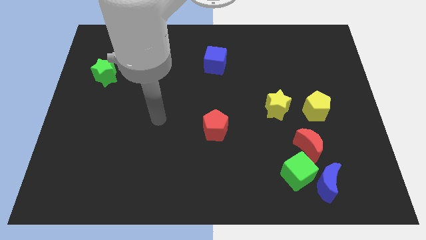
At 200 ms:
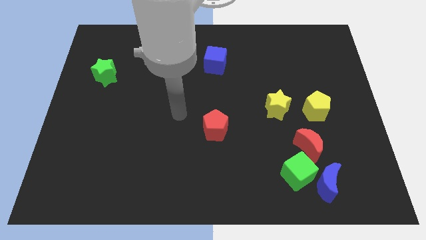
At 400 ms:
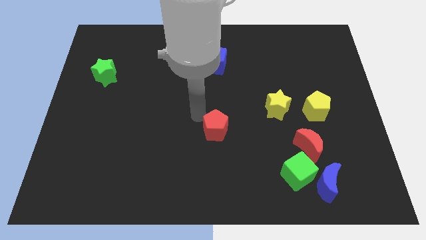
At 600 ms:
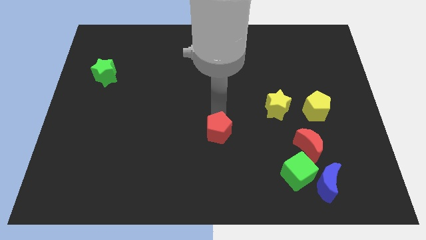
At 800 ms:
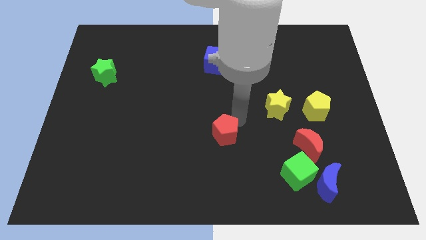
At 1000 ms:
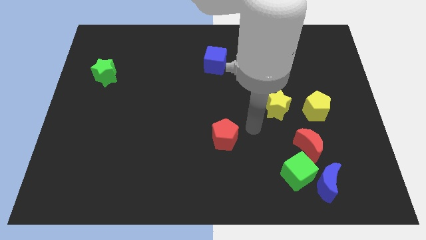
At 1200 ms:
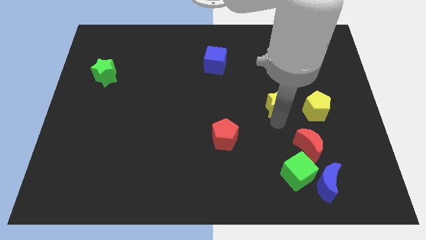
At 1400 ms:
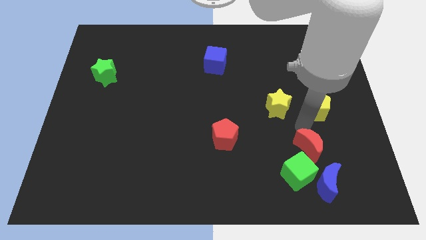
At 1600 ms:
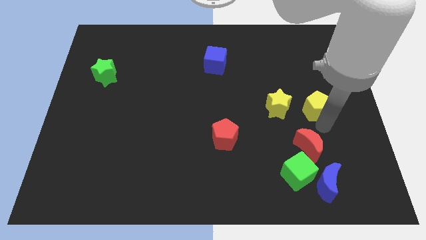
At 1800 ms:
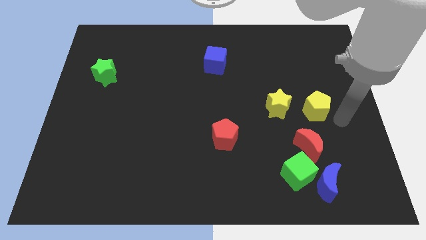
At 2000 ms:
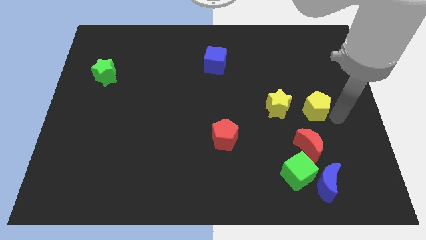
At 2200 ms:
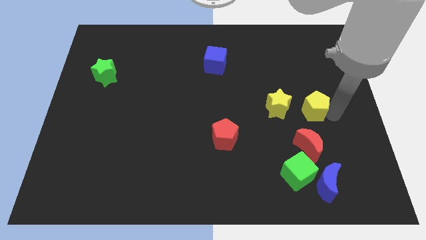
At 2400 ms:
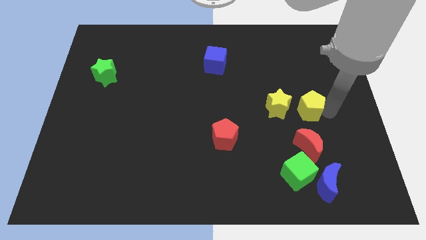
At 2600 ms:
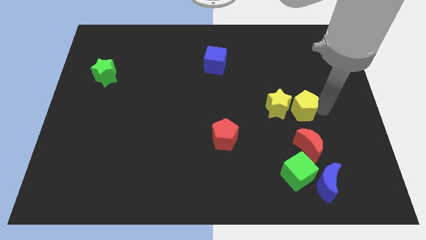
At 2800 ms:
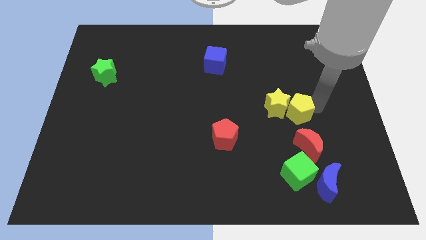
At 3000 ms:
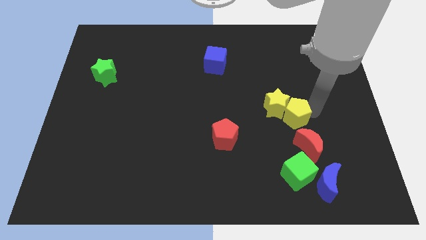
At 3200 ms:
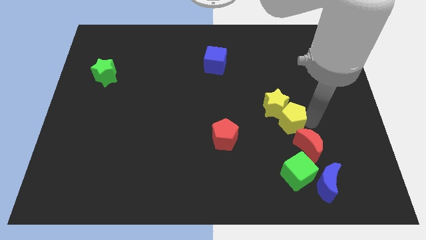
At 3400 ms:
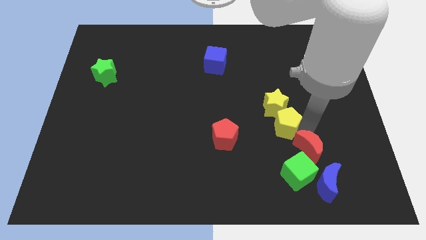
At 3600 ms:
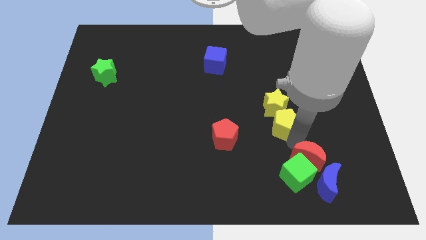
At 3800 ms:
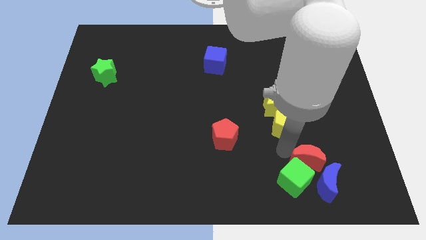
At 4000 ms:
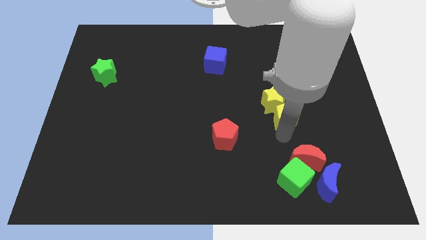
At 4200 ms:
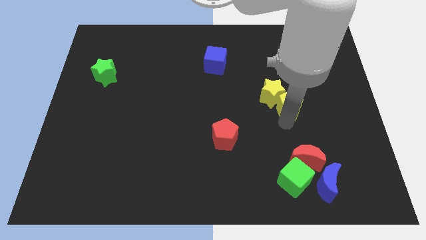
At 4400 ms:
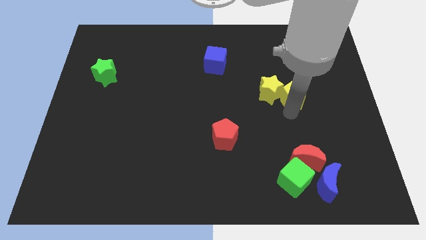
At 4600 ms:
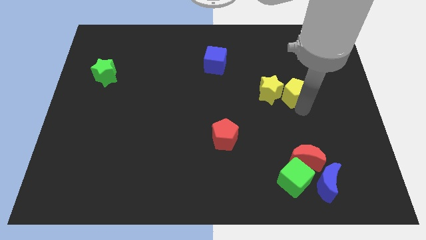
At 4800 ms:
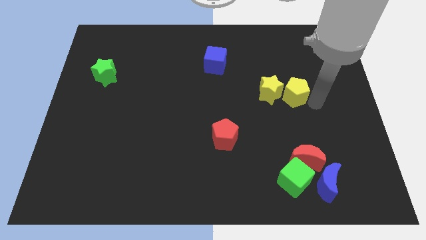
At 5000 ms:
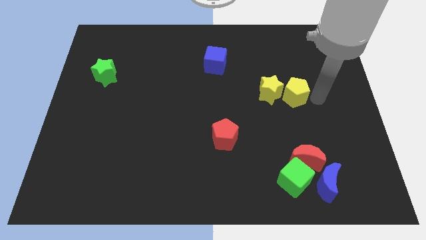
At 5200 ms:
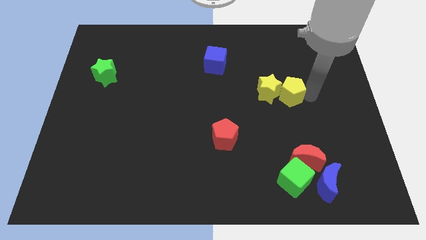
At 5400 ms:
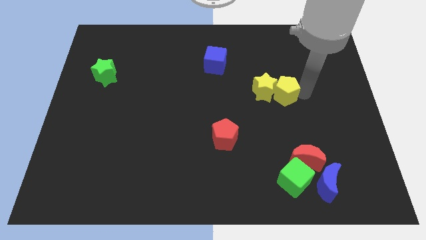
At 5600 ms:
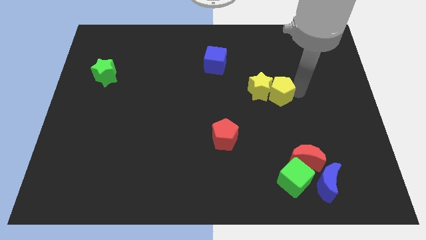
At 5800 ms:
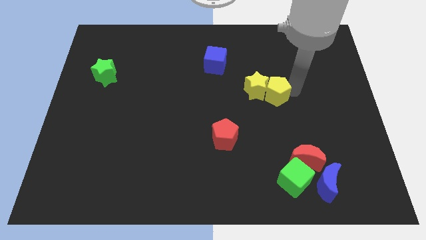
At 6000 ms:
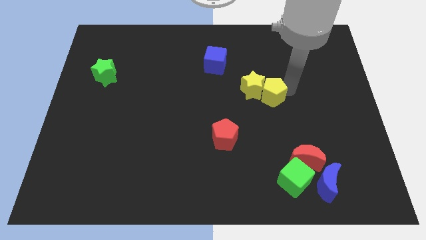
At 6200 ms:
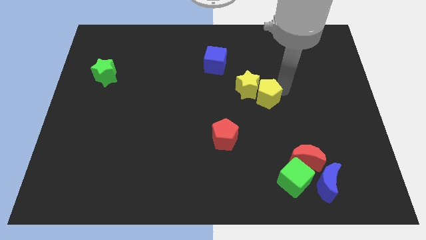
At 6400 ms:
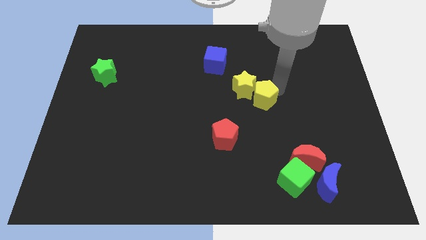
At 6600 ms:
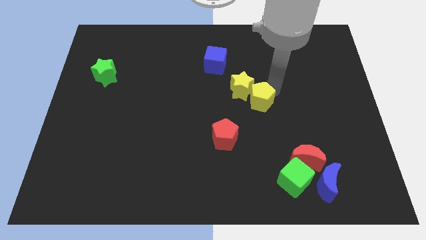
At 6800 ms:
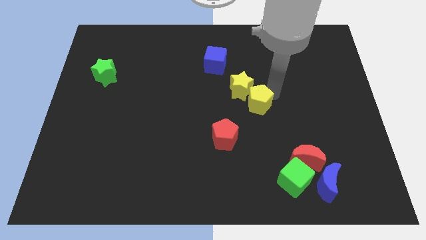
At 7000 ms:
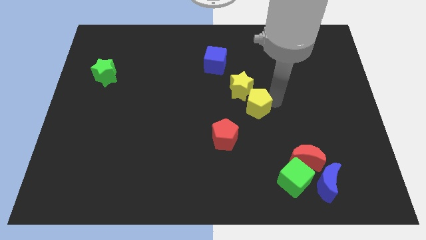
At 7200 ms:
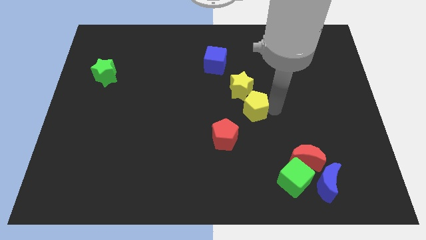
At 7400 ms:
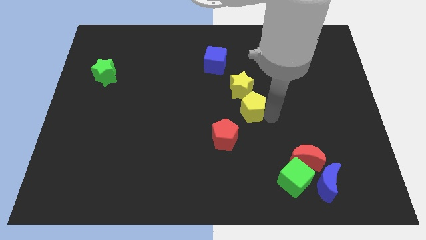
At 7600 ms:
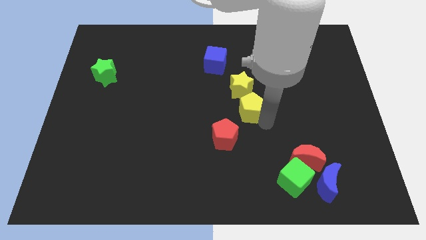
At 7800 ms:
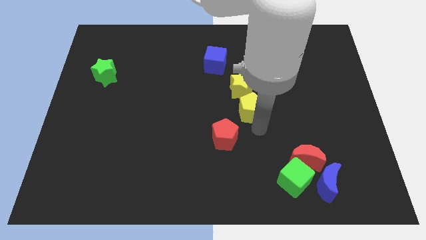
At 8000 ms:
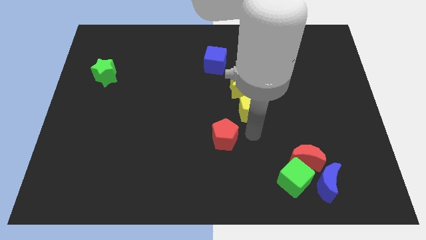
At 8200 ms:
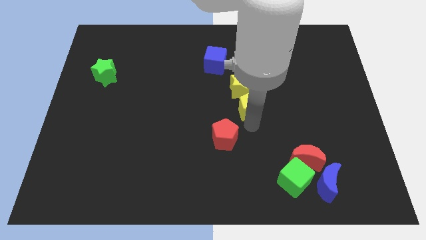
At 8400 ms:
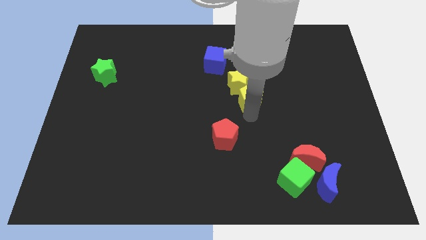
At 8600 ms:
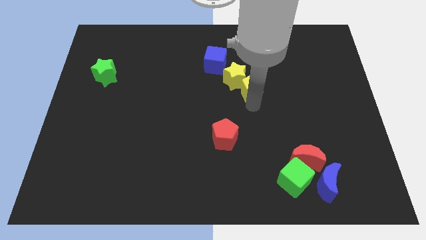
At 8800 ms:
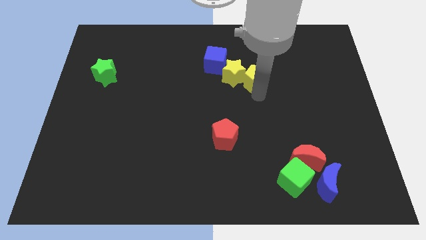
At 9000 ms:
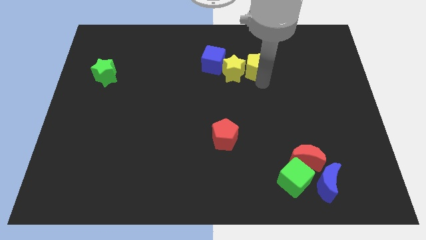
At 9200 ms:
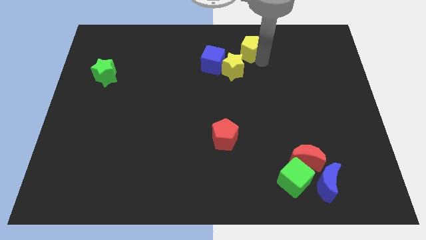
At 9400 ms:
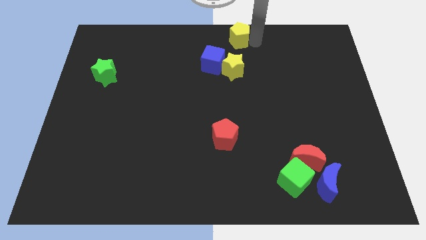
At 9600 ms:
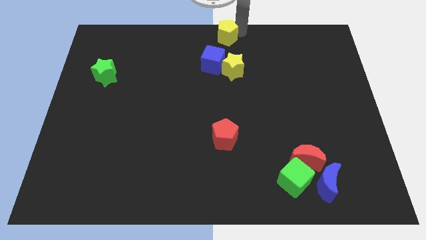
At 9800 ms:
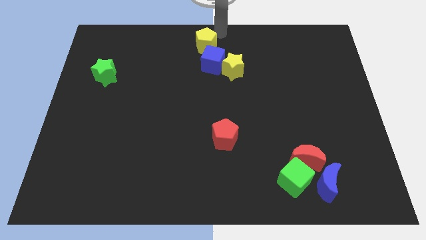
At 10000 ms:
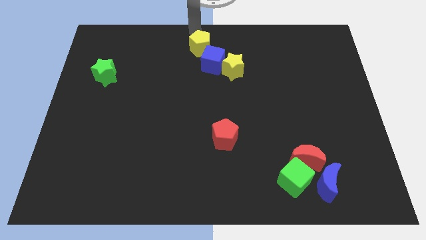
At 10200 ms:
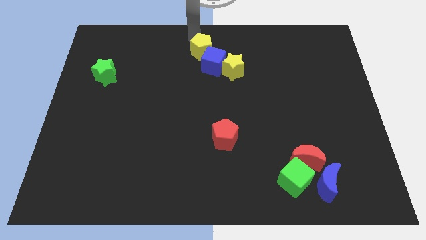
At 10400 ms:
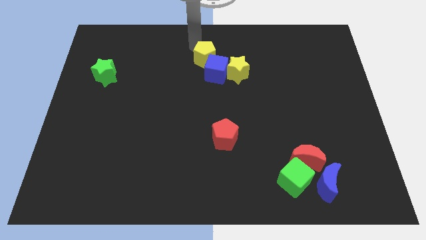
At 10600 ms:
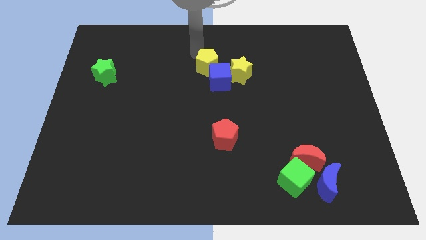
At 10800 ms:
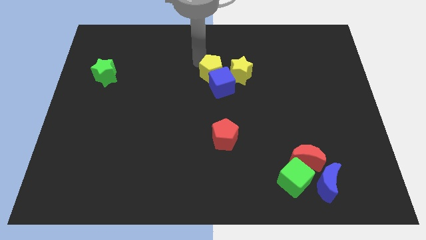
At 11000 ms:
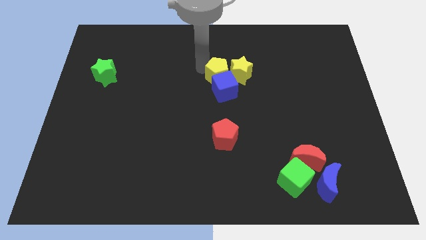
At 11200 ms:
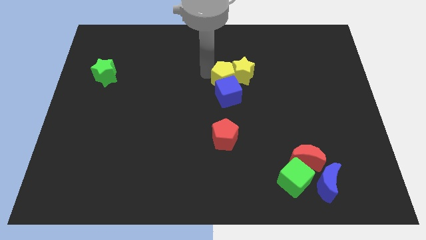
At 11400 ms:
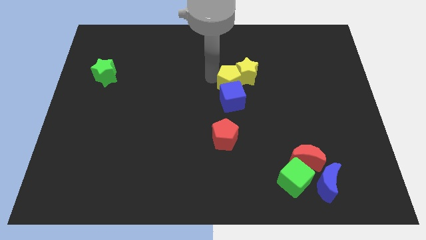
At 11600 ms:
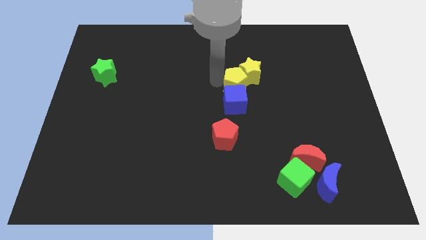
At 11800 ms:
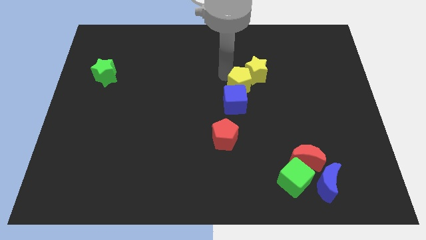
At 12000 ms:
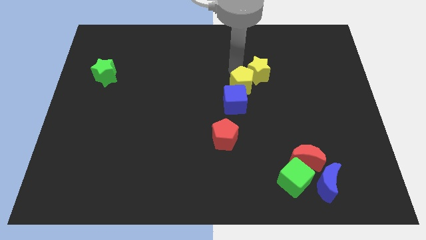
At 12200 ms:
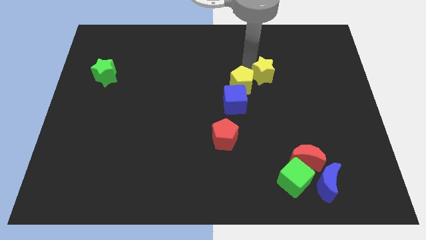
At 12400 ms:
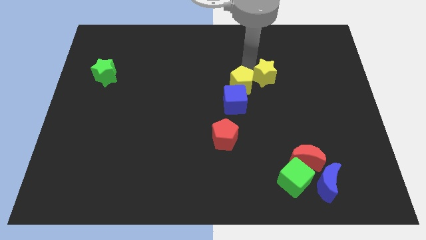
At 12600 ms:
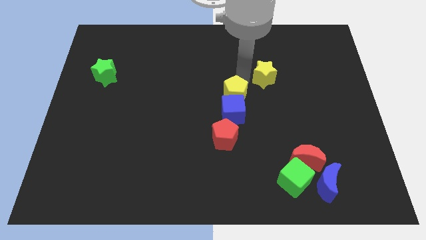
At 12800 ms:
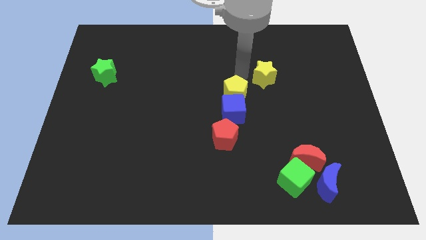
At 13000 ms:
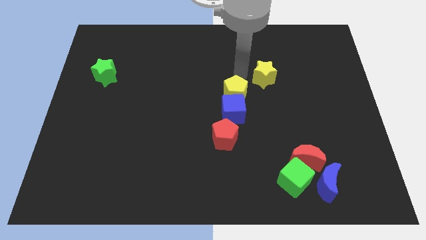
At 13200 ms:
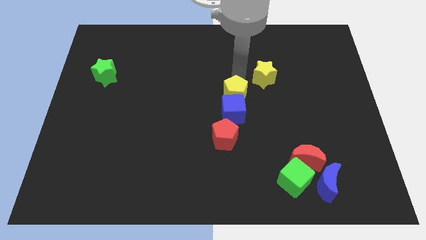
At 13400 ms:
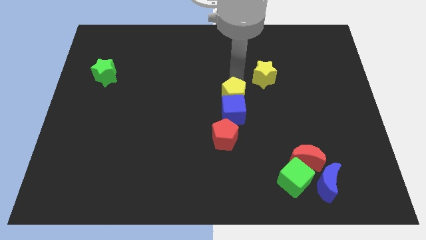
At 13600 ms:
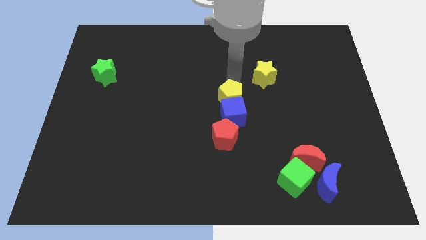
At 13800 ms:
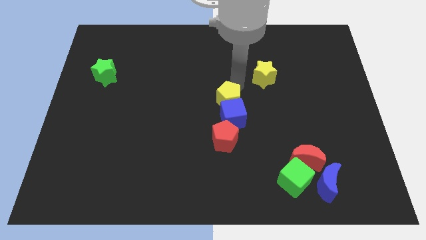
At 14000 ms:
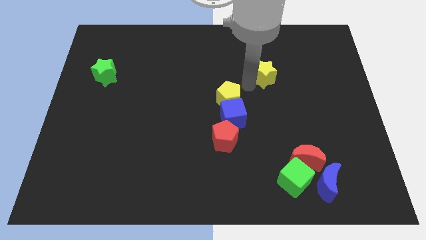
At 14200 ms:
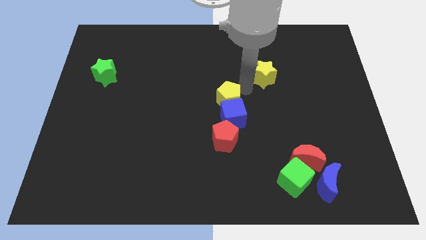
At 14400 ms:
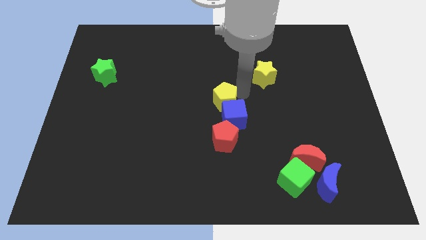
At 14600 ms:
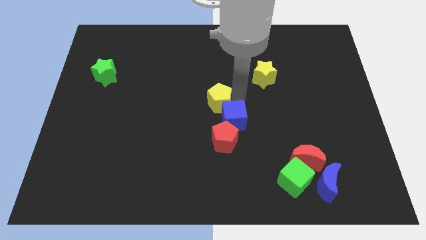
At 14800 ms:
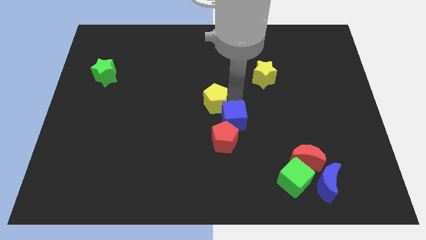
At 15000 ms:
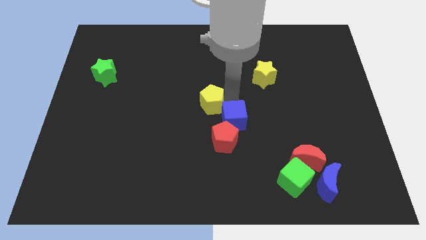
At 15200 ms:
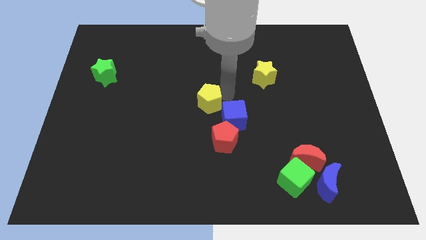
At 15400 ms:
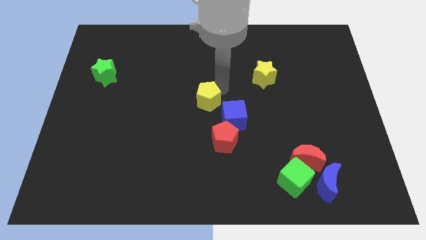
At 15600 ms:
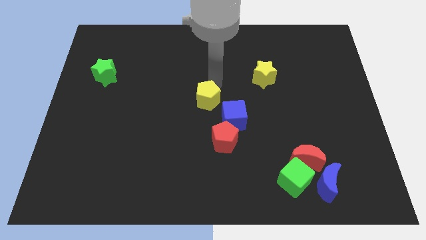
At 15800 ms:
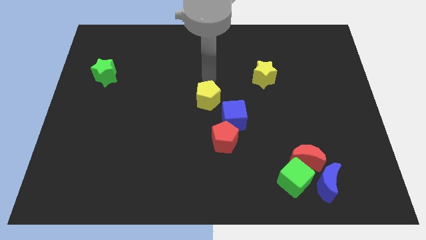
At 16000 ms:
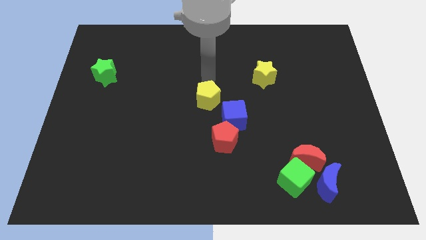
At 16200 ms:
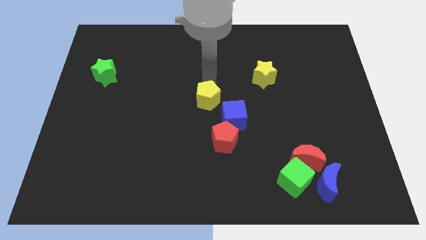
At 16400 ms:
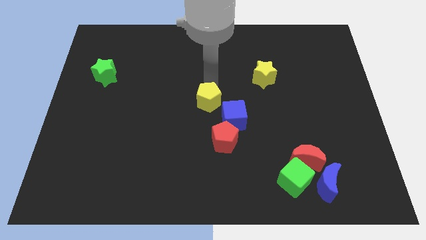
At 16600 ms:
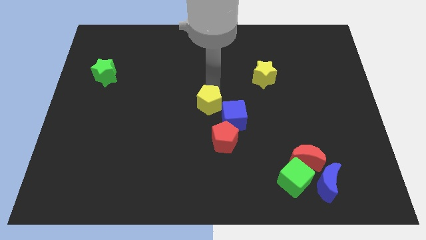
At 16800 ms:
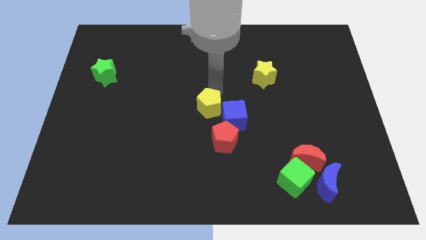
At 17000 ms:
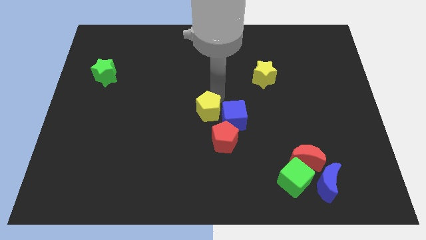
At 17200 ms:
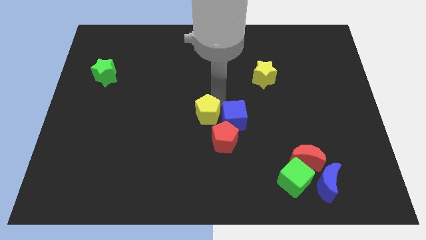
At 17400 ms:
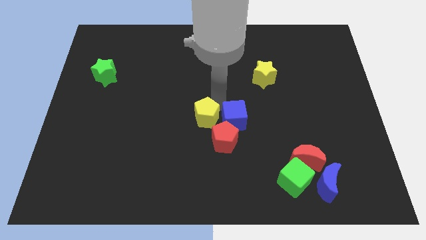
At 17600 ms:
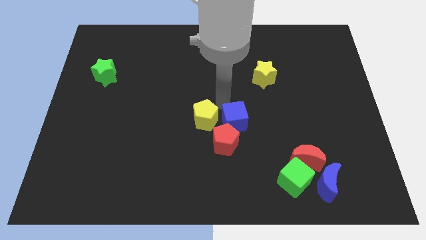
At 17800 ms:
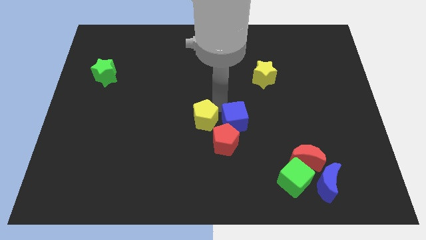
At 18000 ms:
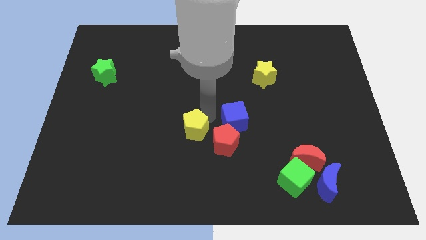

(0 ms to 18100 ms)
slide the yellow pentagon to the left side of the red pentagon
